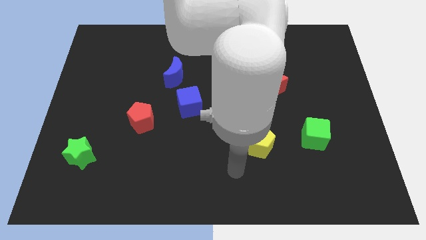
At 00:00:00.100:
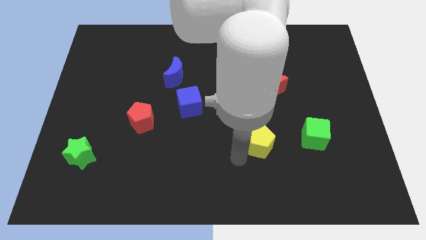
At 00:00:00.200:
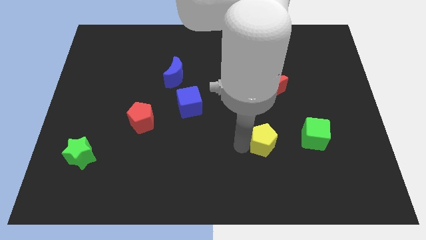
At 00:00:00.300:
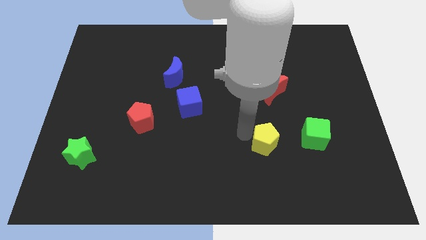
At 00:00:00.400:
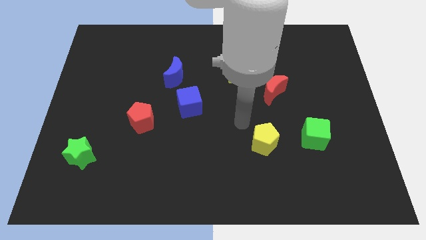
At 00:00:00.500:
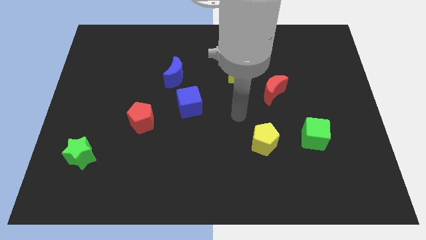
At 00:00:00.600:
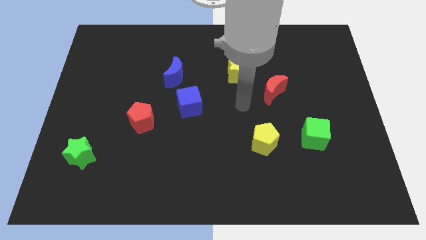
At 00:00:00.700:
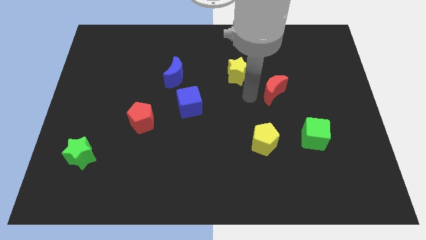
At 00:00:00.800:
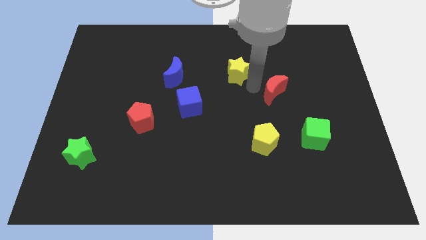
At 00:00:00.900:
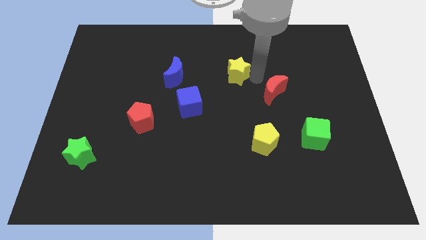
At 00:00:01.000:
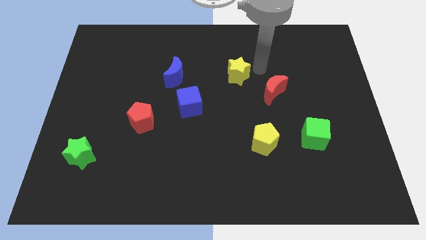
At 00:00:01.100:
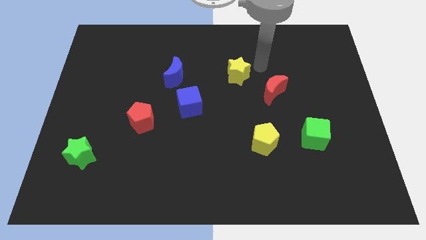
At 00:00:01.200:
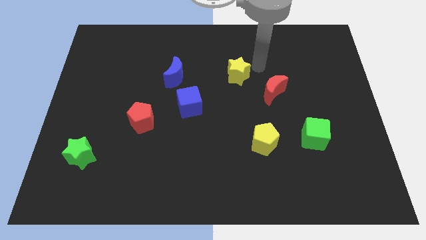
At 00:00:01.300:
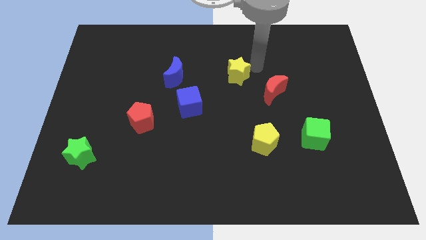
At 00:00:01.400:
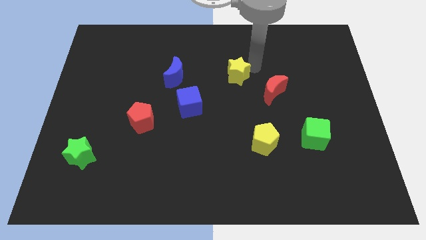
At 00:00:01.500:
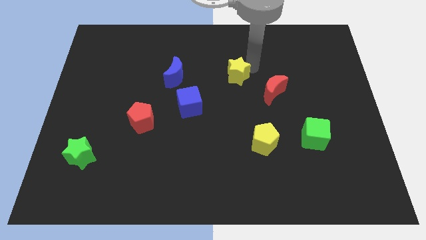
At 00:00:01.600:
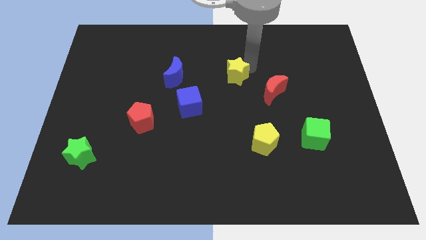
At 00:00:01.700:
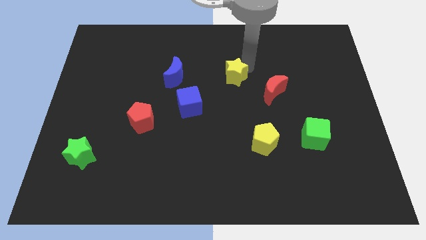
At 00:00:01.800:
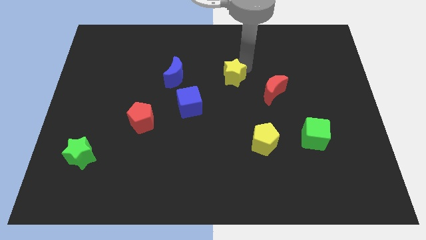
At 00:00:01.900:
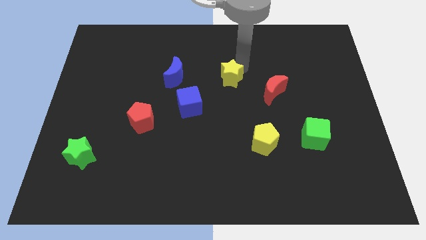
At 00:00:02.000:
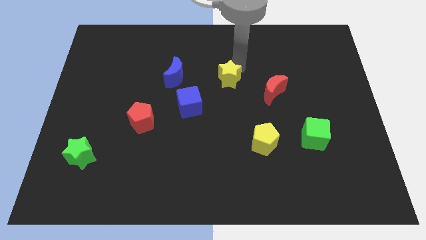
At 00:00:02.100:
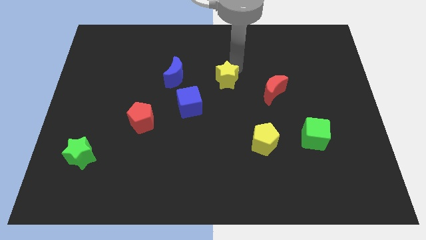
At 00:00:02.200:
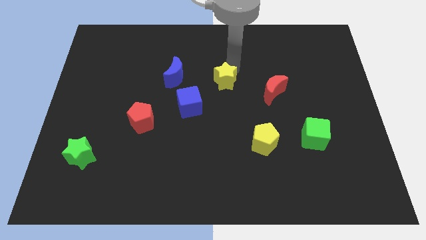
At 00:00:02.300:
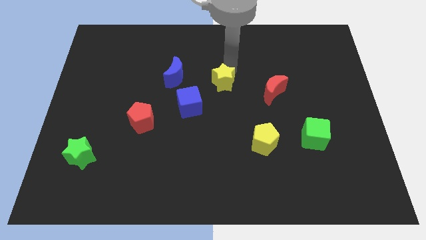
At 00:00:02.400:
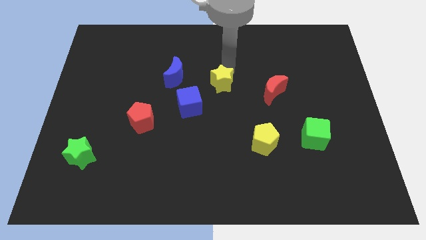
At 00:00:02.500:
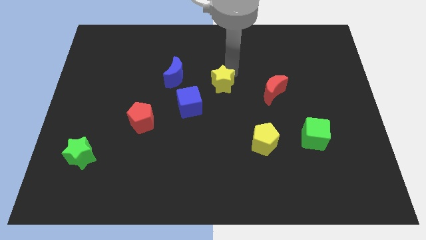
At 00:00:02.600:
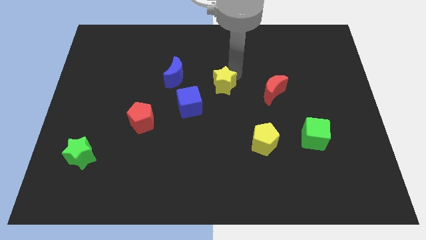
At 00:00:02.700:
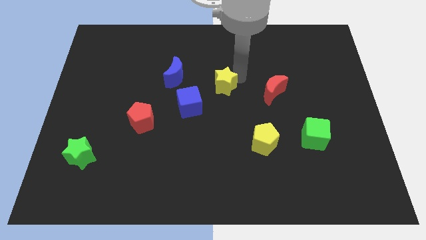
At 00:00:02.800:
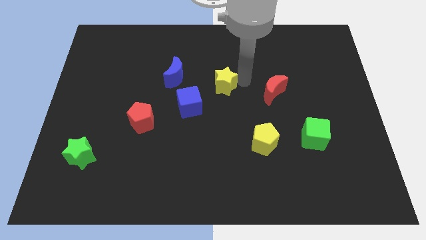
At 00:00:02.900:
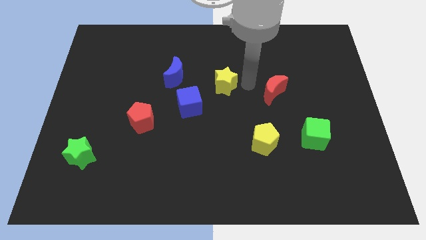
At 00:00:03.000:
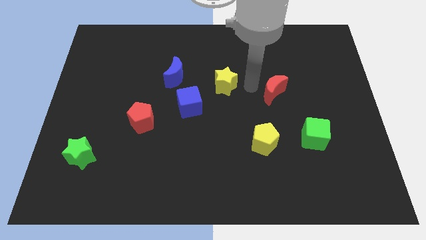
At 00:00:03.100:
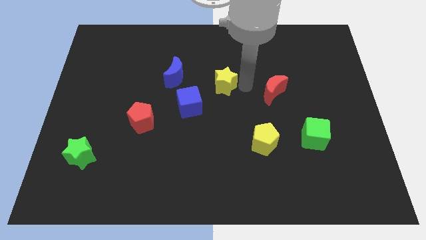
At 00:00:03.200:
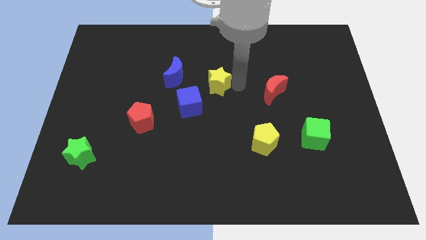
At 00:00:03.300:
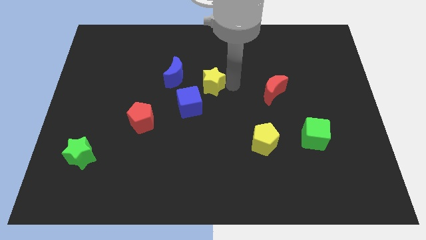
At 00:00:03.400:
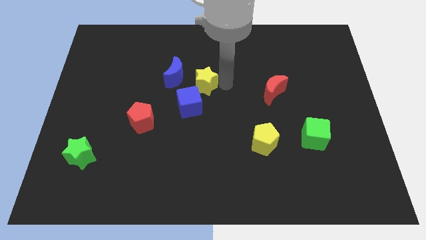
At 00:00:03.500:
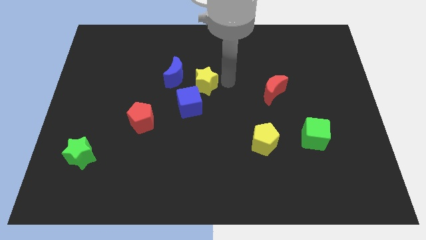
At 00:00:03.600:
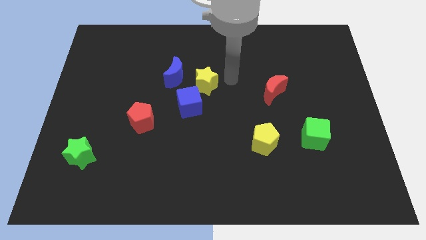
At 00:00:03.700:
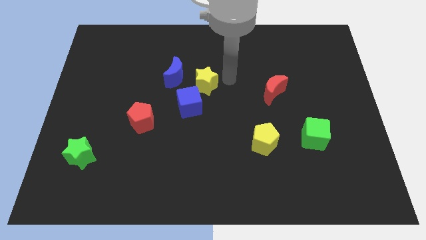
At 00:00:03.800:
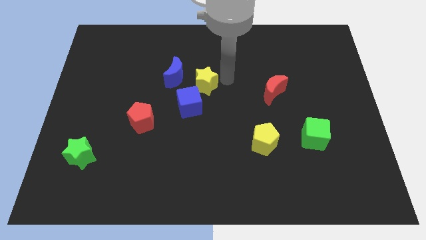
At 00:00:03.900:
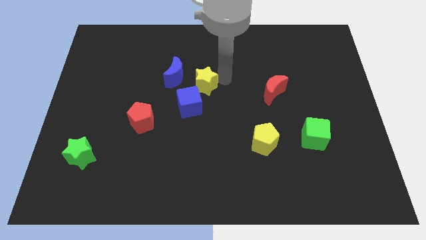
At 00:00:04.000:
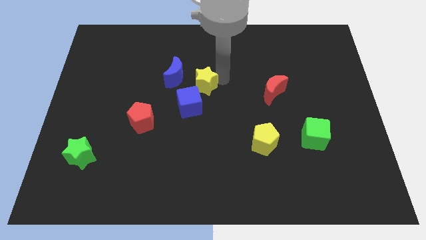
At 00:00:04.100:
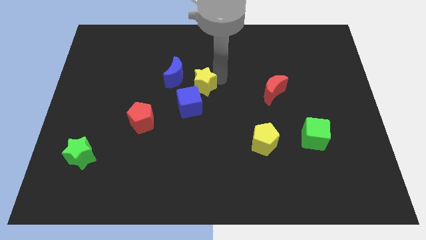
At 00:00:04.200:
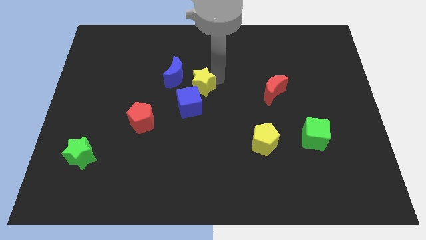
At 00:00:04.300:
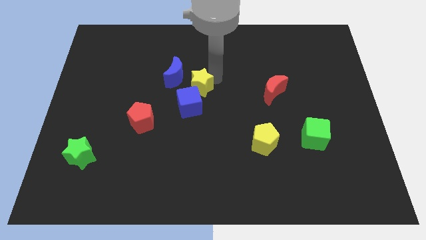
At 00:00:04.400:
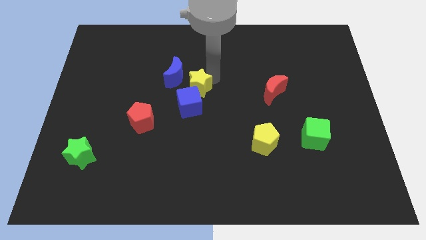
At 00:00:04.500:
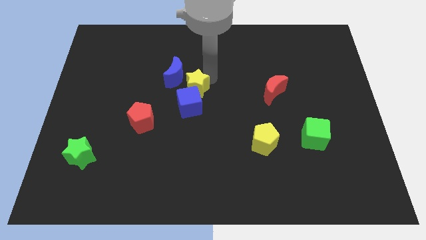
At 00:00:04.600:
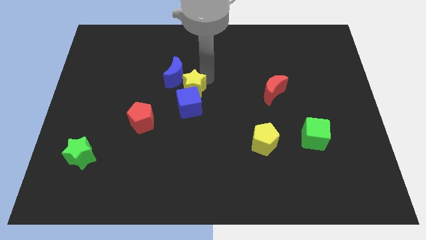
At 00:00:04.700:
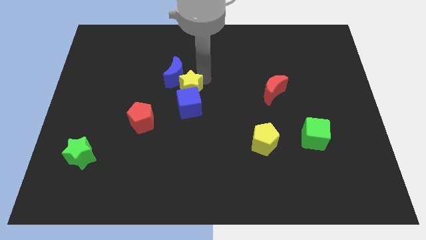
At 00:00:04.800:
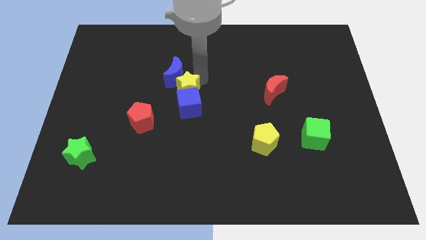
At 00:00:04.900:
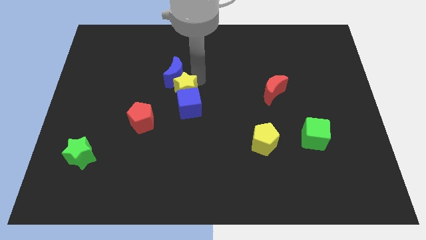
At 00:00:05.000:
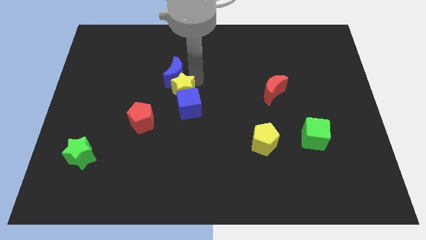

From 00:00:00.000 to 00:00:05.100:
put the yellow star to the top right of the red pentagon

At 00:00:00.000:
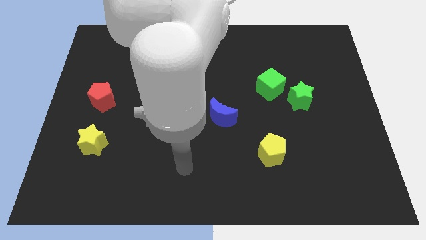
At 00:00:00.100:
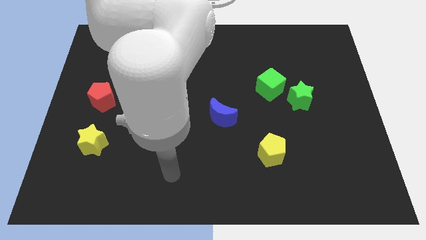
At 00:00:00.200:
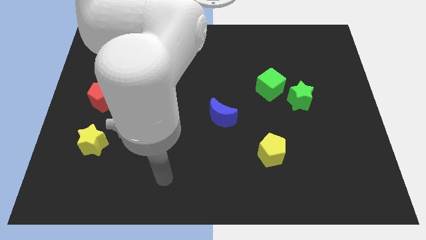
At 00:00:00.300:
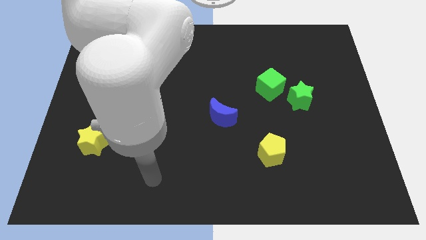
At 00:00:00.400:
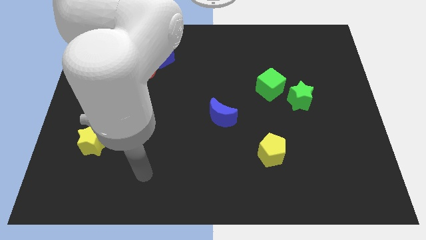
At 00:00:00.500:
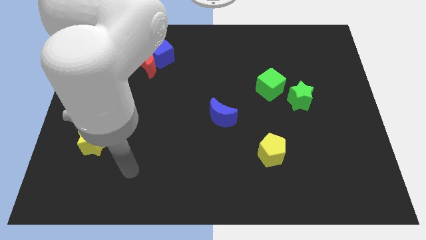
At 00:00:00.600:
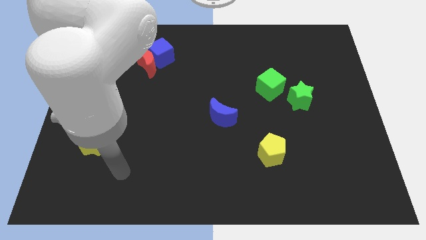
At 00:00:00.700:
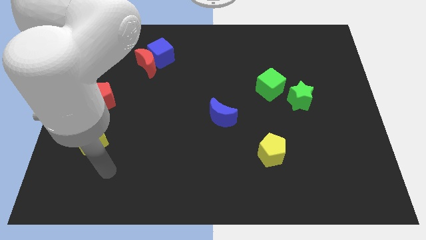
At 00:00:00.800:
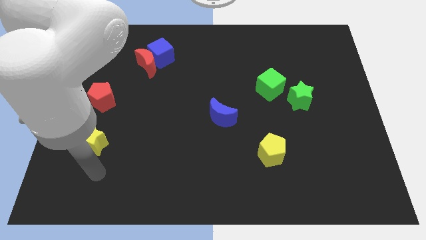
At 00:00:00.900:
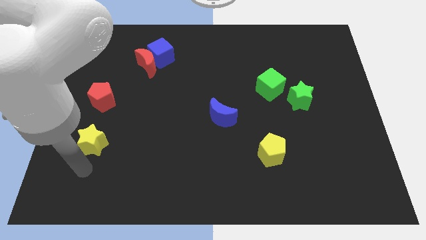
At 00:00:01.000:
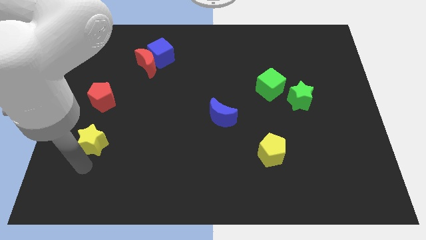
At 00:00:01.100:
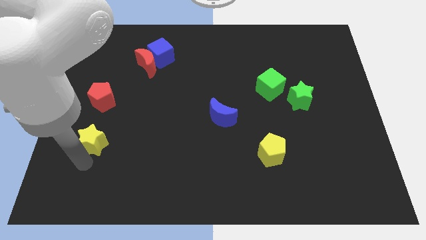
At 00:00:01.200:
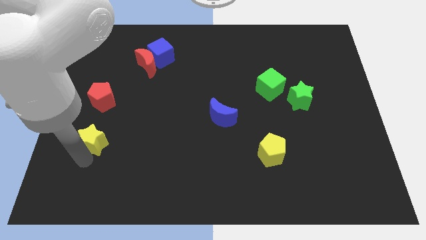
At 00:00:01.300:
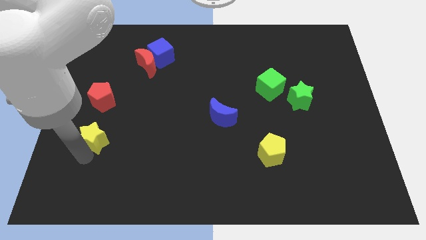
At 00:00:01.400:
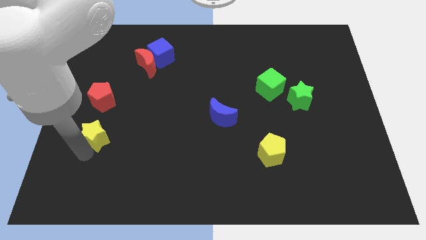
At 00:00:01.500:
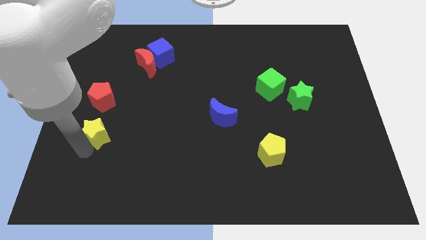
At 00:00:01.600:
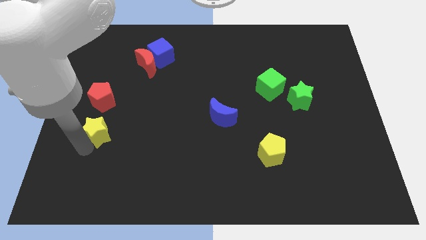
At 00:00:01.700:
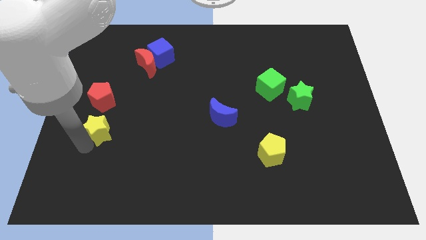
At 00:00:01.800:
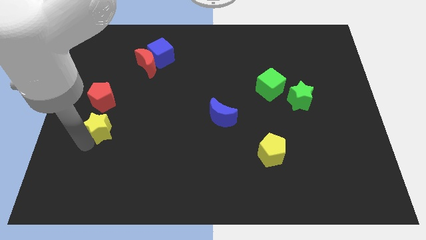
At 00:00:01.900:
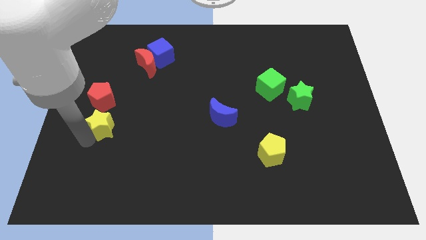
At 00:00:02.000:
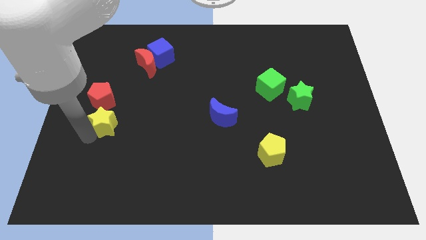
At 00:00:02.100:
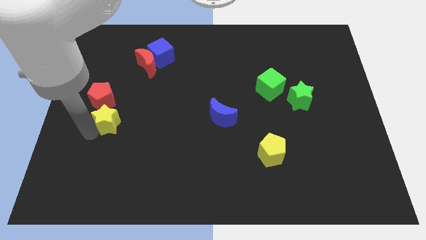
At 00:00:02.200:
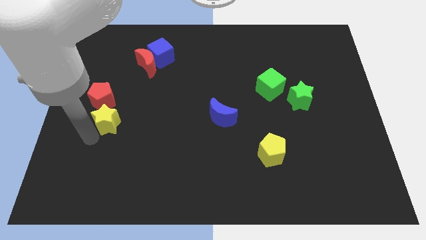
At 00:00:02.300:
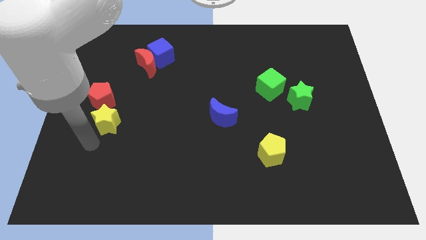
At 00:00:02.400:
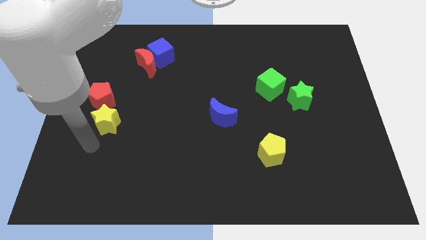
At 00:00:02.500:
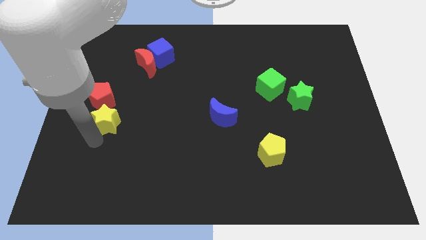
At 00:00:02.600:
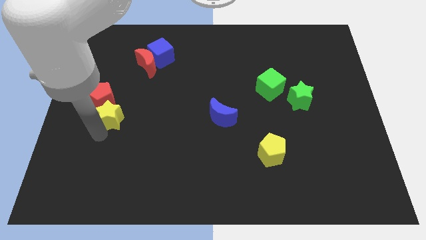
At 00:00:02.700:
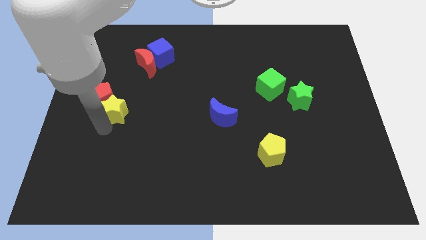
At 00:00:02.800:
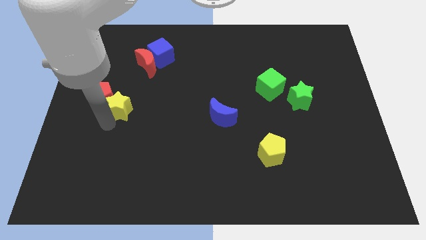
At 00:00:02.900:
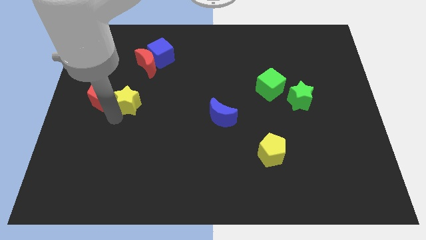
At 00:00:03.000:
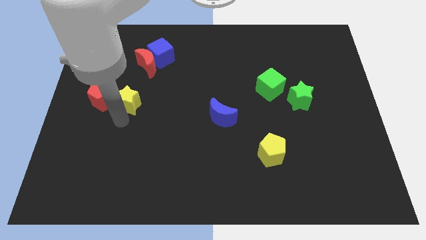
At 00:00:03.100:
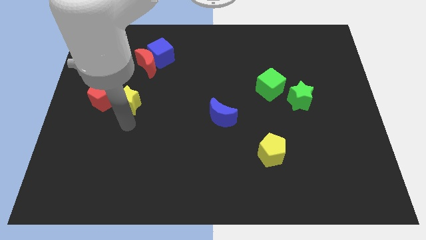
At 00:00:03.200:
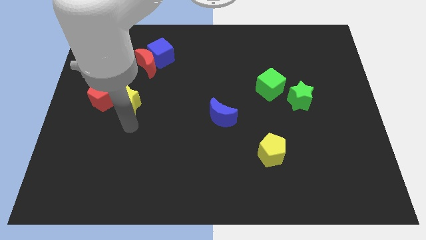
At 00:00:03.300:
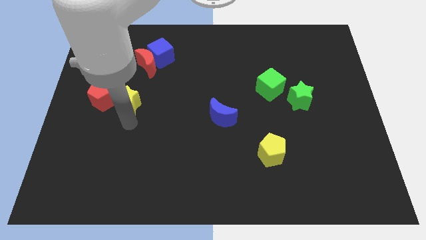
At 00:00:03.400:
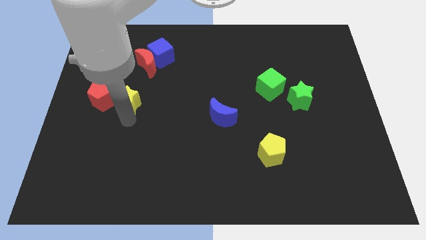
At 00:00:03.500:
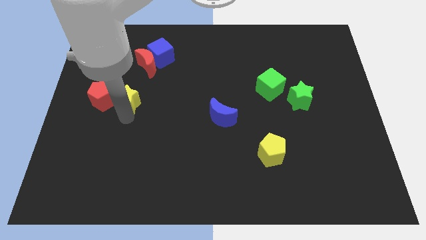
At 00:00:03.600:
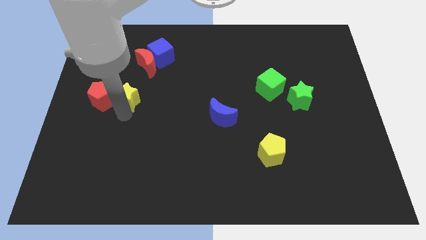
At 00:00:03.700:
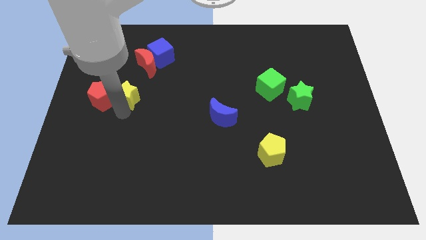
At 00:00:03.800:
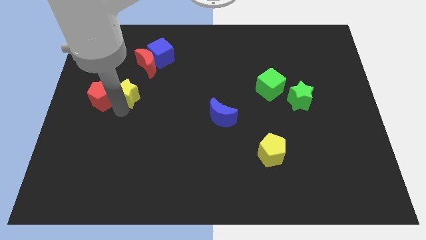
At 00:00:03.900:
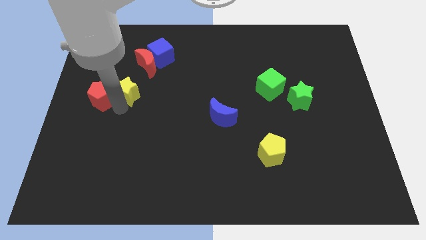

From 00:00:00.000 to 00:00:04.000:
move the yellow star to the bottom left side of the red moon
